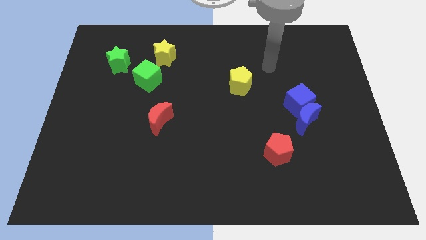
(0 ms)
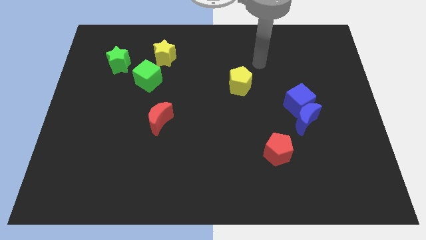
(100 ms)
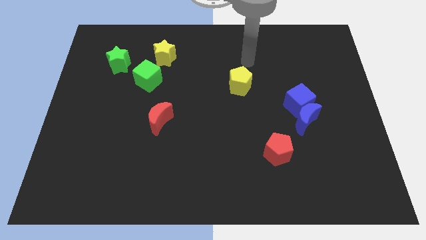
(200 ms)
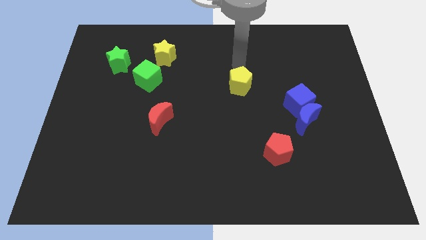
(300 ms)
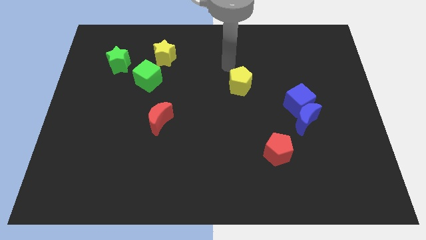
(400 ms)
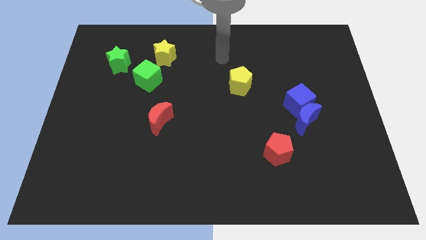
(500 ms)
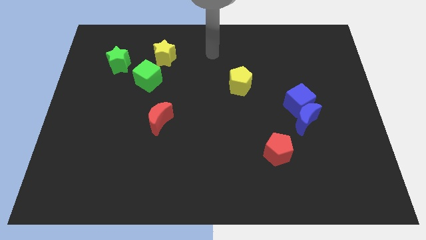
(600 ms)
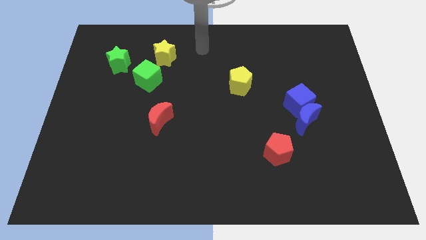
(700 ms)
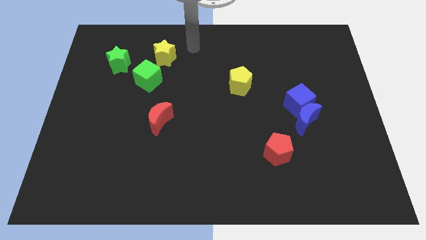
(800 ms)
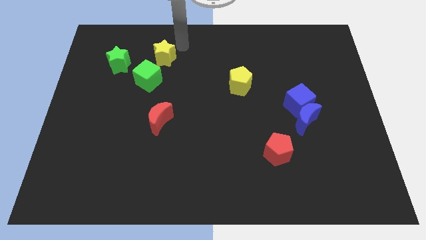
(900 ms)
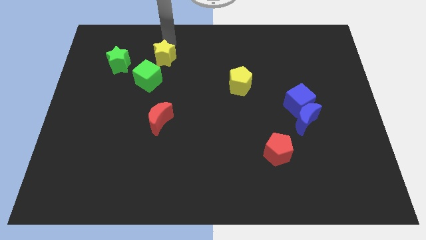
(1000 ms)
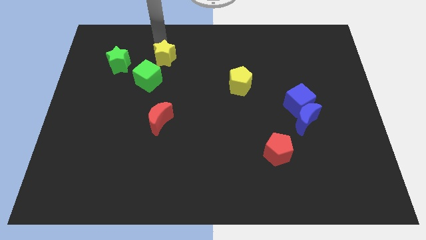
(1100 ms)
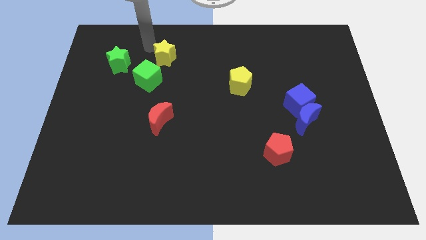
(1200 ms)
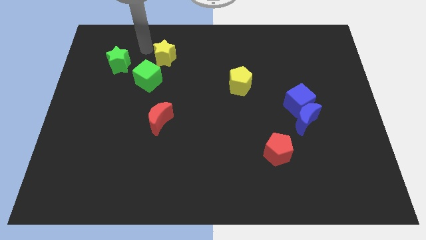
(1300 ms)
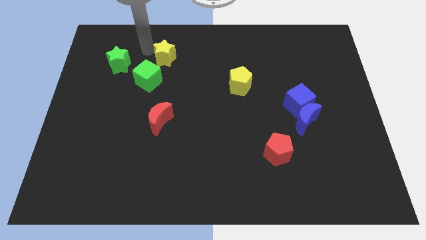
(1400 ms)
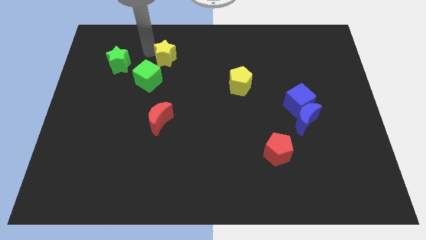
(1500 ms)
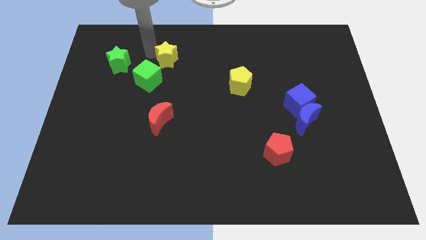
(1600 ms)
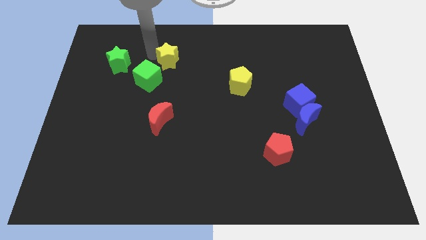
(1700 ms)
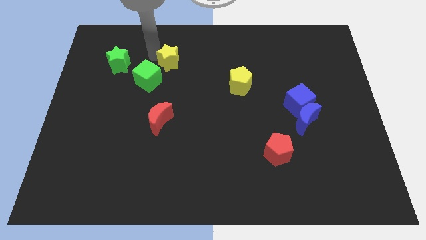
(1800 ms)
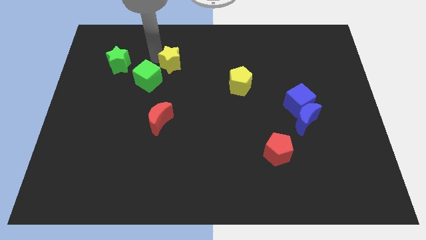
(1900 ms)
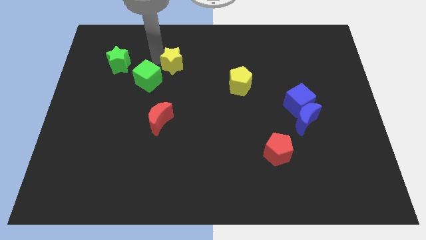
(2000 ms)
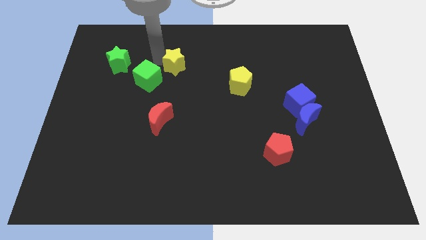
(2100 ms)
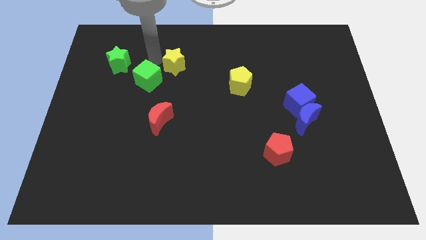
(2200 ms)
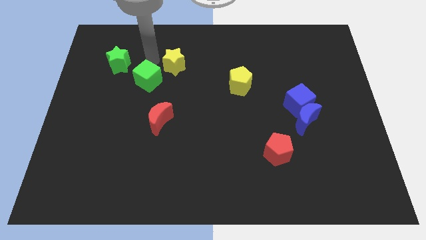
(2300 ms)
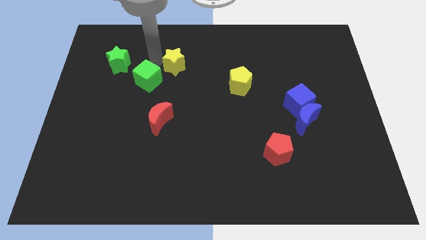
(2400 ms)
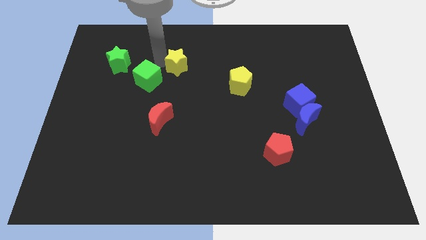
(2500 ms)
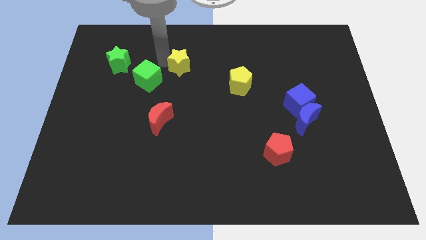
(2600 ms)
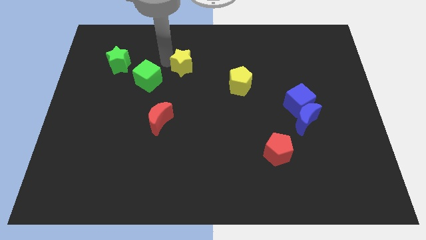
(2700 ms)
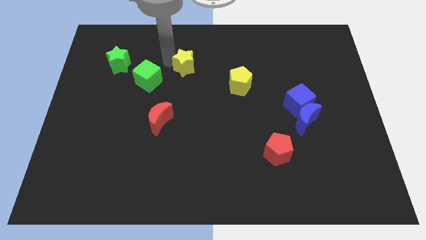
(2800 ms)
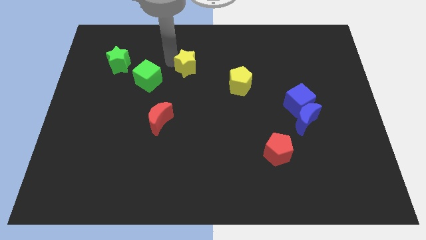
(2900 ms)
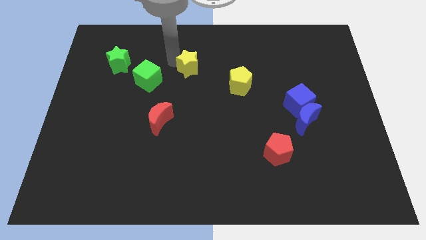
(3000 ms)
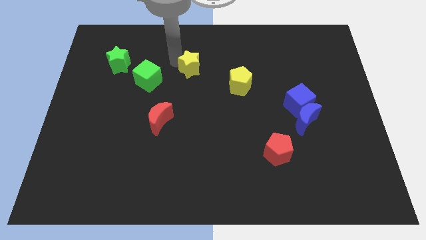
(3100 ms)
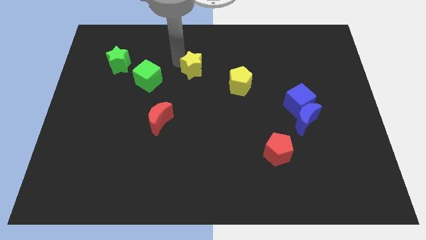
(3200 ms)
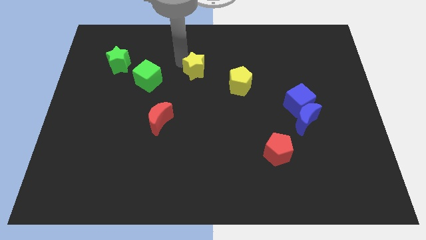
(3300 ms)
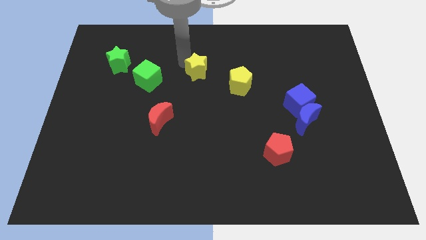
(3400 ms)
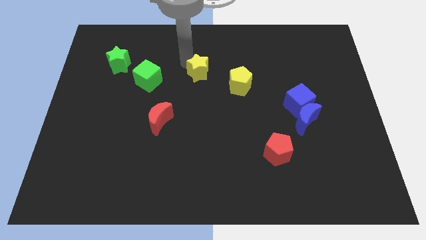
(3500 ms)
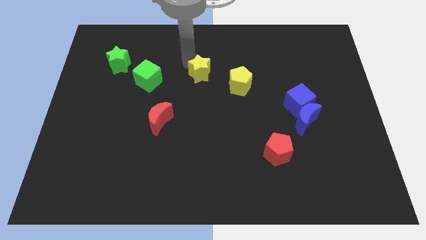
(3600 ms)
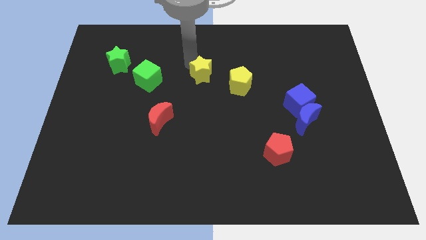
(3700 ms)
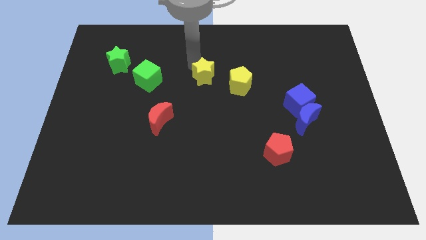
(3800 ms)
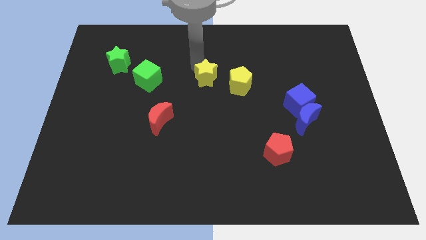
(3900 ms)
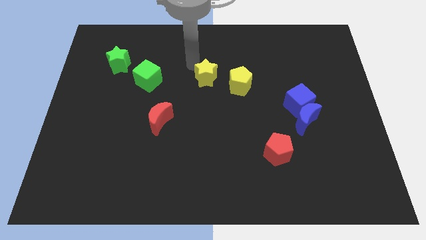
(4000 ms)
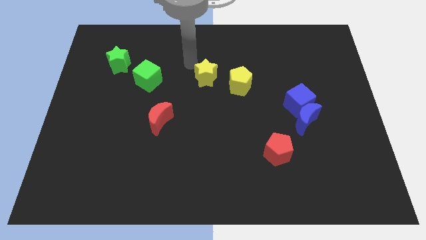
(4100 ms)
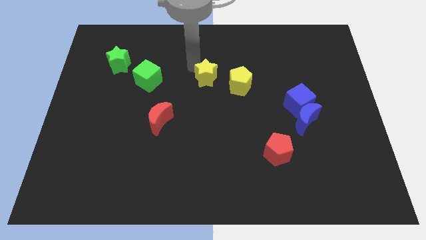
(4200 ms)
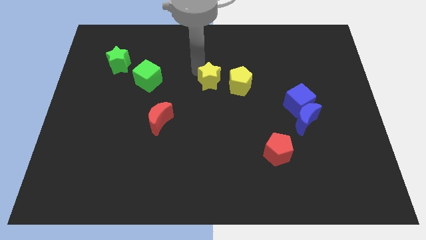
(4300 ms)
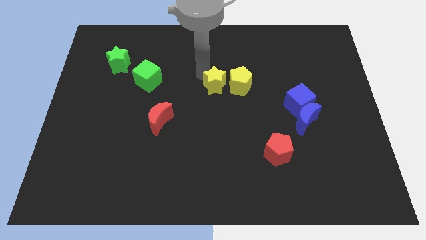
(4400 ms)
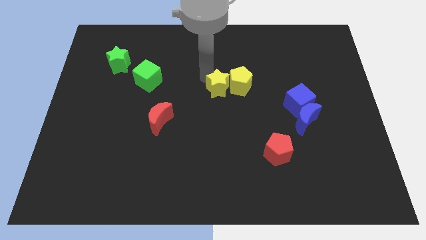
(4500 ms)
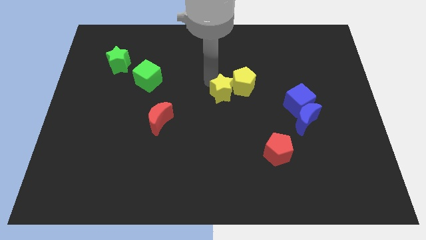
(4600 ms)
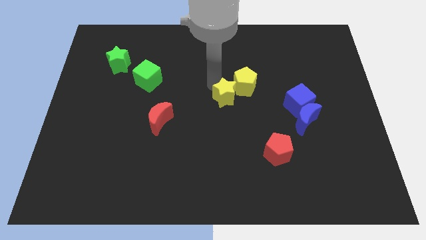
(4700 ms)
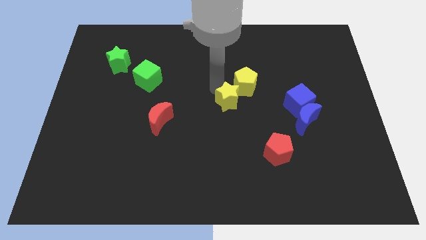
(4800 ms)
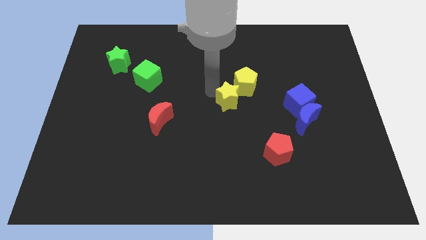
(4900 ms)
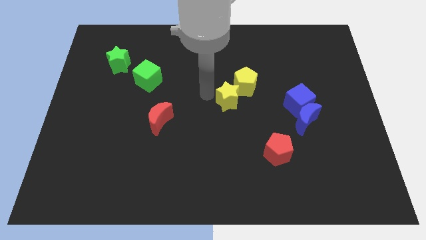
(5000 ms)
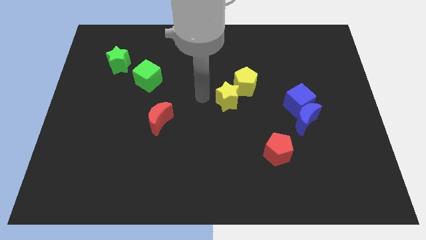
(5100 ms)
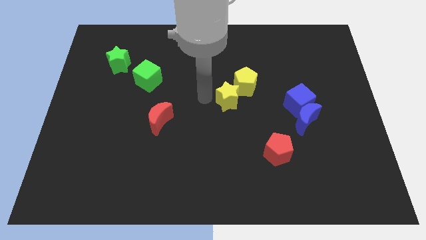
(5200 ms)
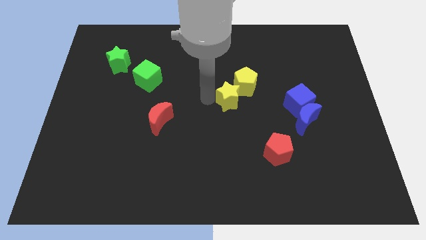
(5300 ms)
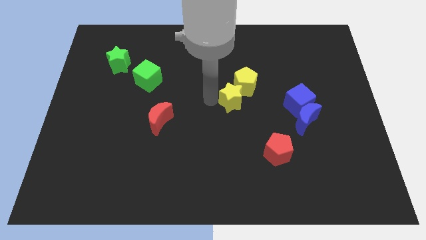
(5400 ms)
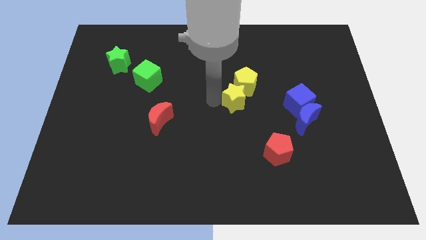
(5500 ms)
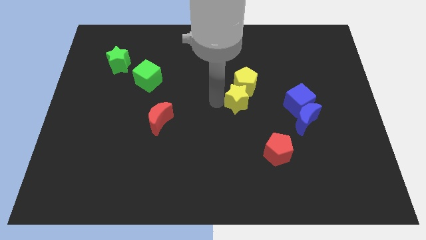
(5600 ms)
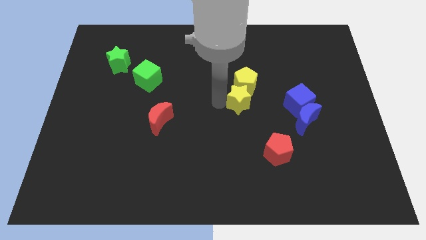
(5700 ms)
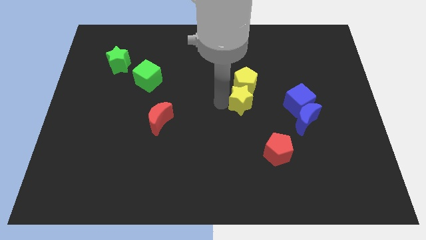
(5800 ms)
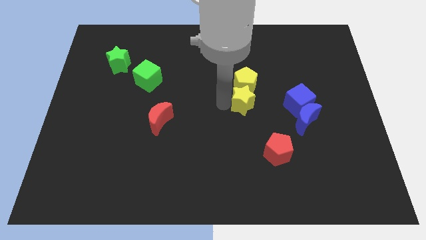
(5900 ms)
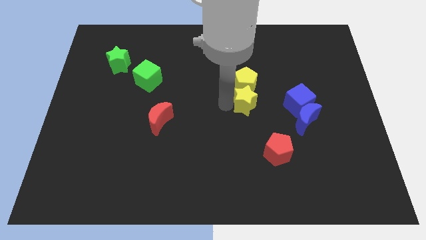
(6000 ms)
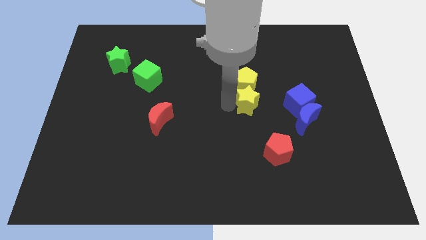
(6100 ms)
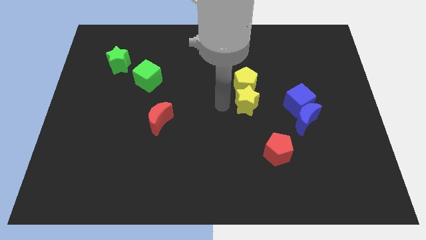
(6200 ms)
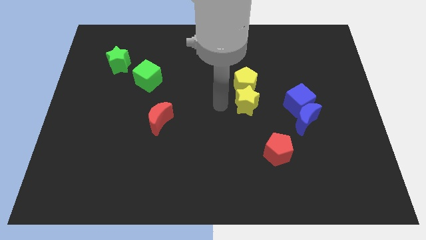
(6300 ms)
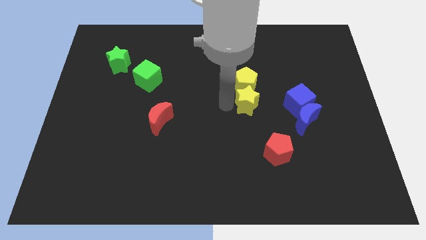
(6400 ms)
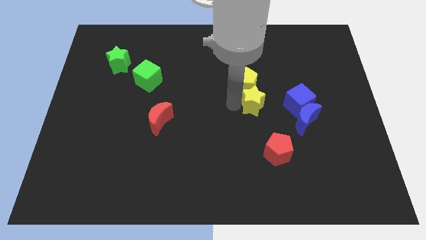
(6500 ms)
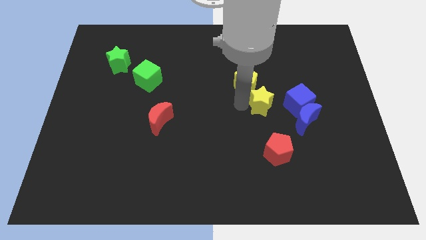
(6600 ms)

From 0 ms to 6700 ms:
put the yellow star to the top left side of the blue moon

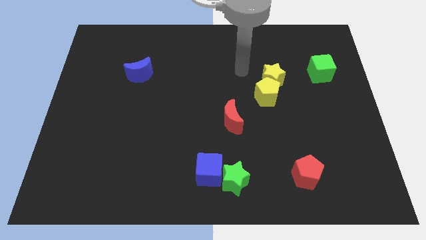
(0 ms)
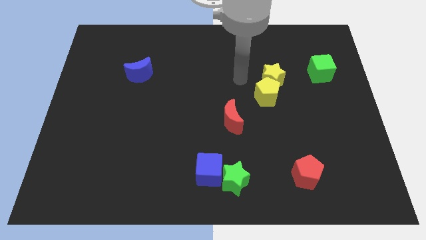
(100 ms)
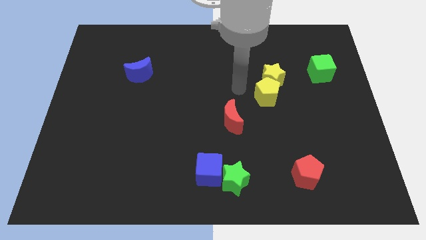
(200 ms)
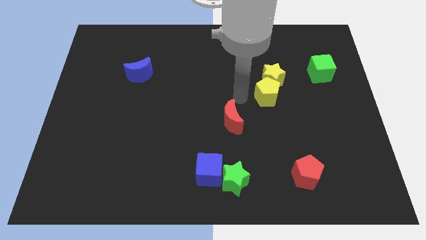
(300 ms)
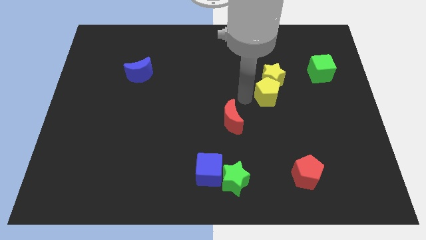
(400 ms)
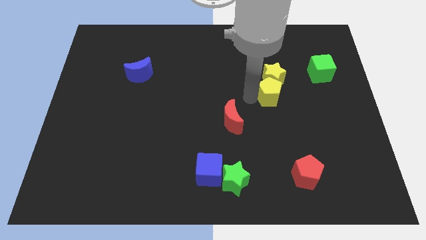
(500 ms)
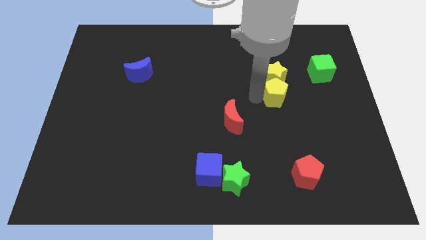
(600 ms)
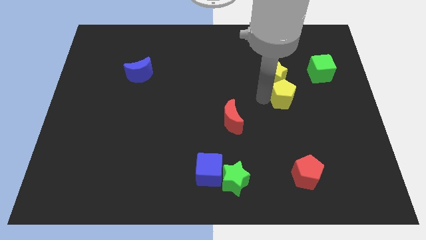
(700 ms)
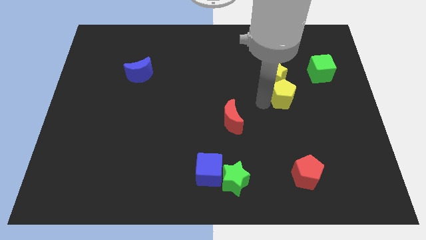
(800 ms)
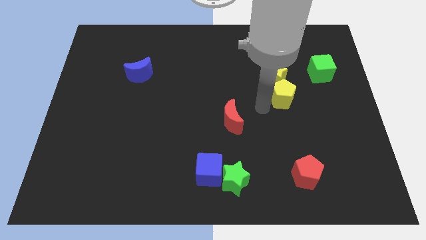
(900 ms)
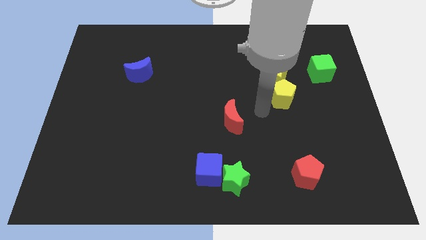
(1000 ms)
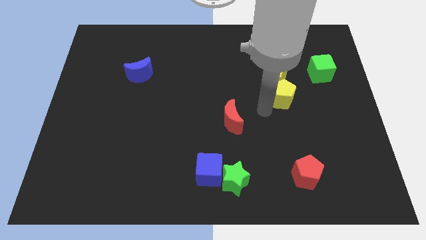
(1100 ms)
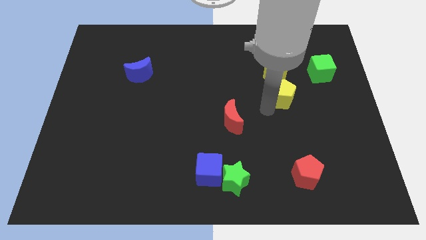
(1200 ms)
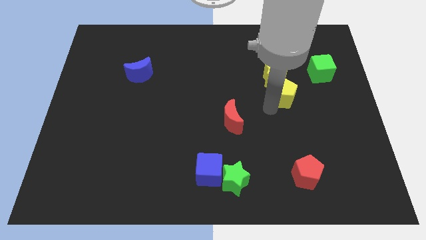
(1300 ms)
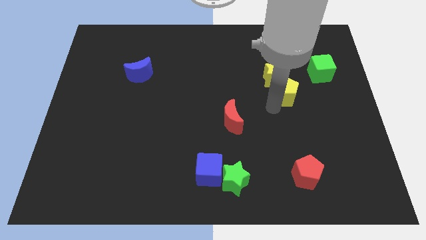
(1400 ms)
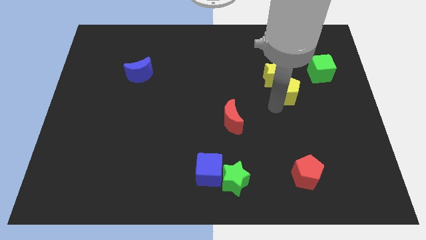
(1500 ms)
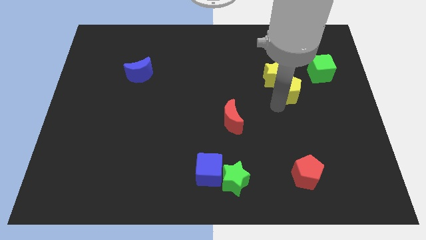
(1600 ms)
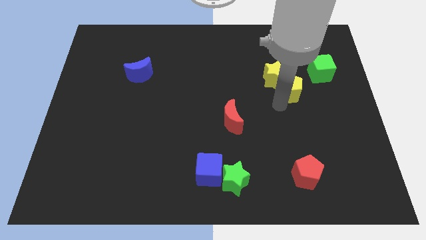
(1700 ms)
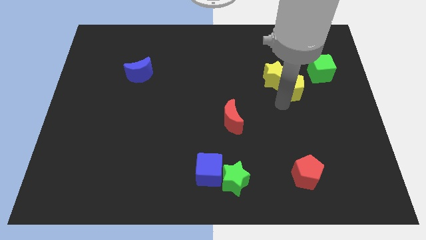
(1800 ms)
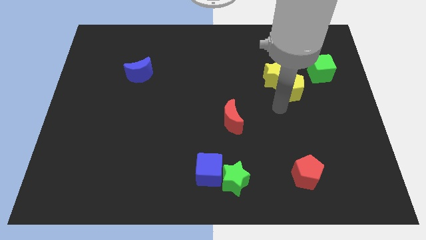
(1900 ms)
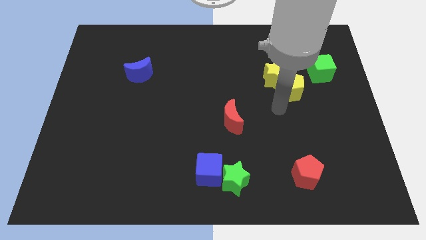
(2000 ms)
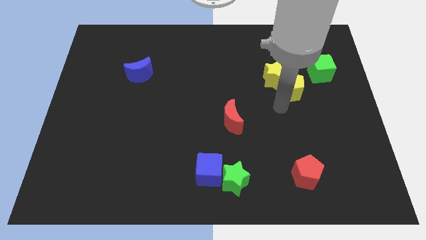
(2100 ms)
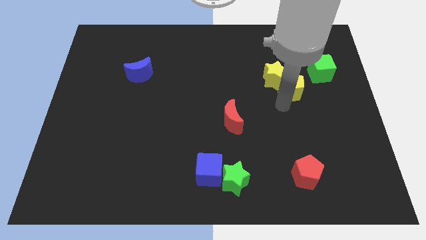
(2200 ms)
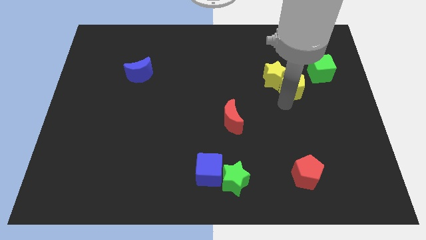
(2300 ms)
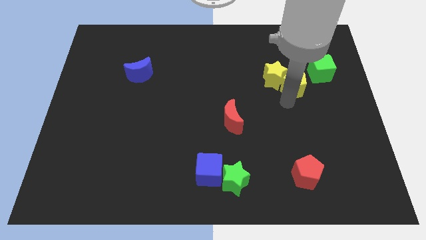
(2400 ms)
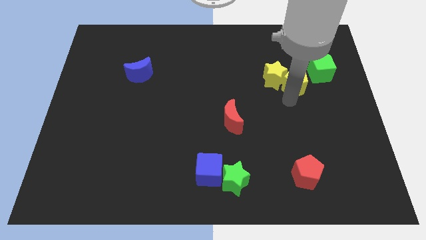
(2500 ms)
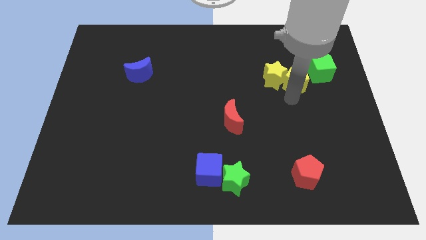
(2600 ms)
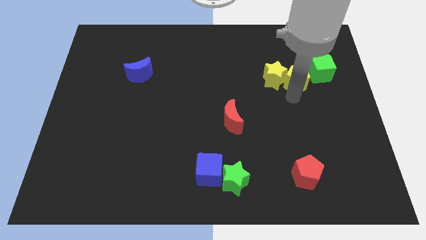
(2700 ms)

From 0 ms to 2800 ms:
slide the yellow pentagon to the top right side of the yellow star
